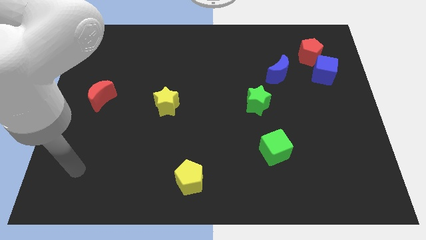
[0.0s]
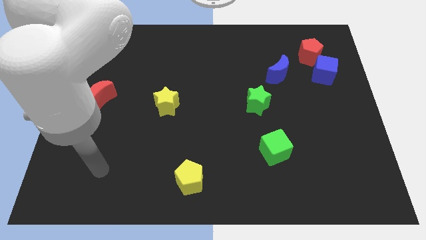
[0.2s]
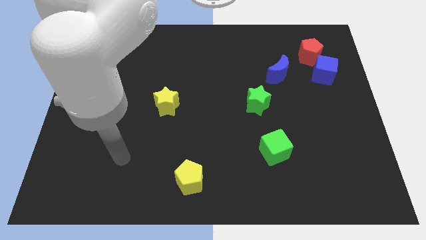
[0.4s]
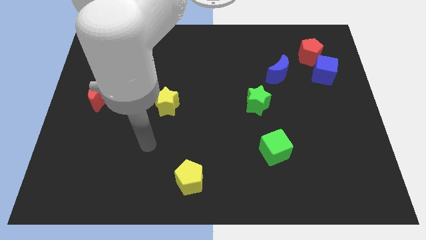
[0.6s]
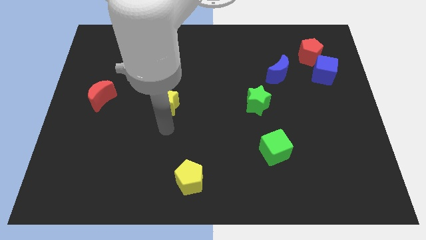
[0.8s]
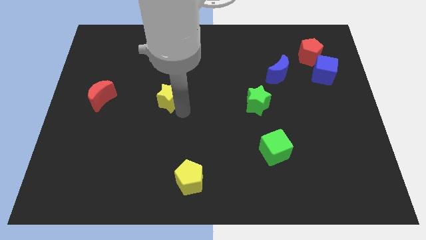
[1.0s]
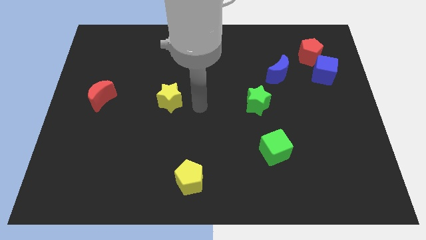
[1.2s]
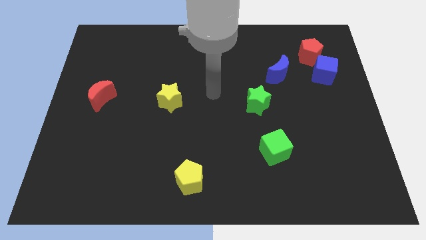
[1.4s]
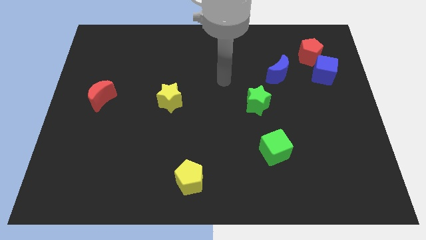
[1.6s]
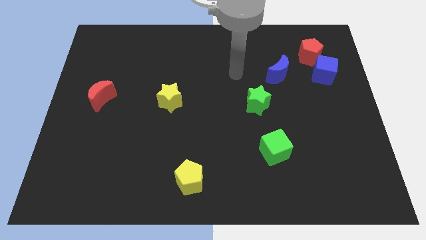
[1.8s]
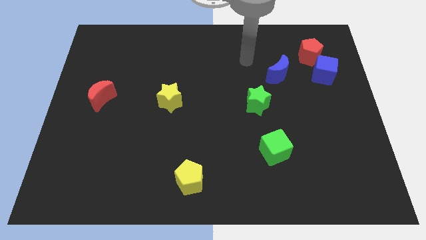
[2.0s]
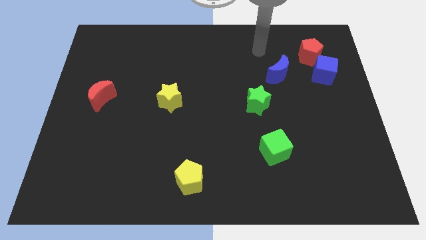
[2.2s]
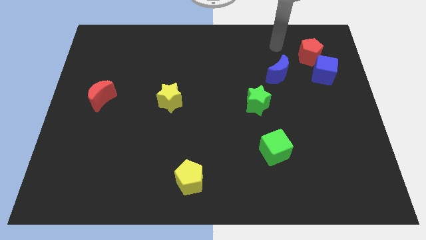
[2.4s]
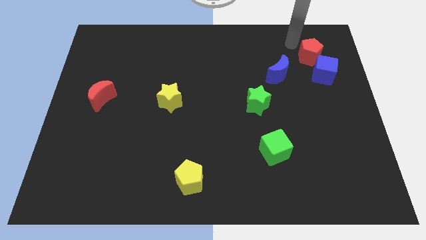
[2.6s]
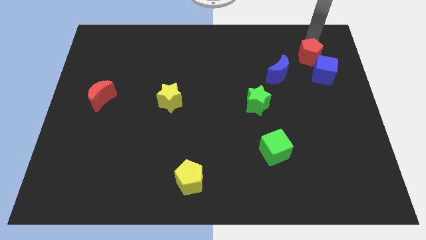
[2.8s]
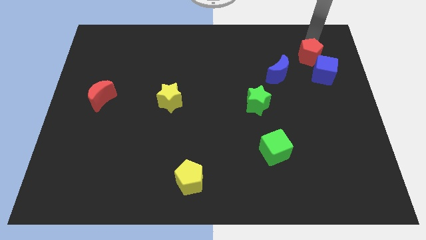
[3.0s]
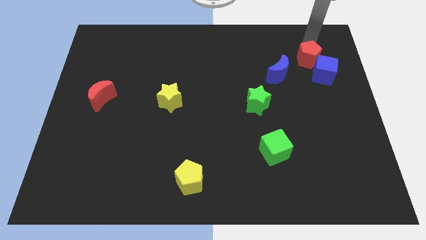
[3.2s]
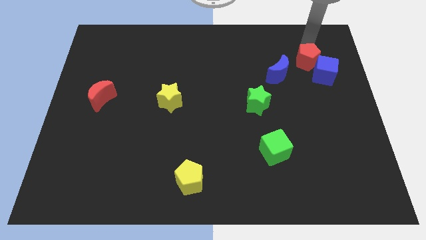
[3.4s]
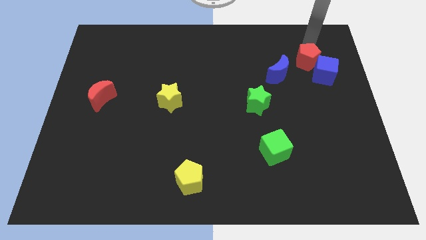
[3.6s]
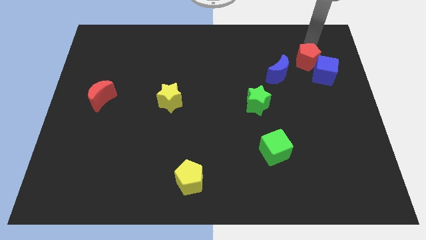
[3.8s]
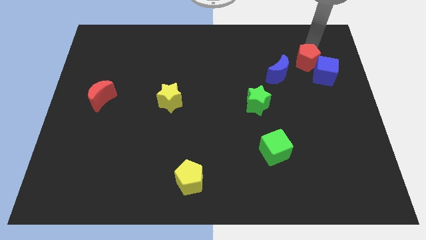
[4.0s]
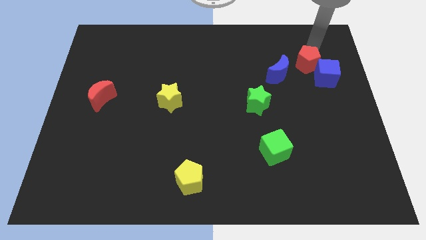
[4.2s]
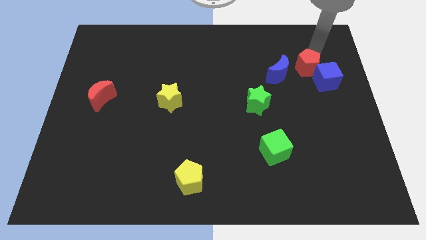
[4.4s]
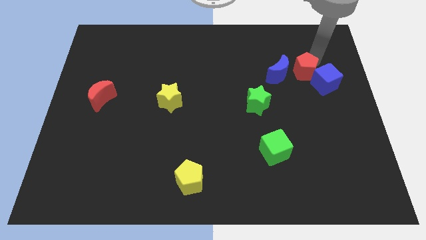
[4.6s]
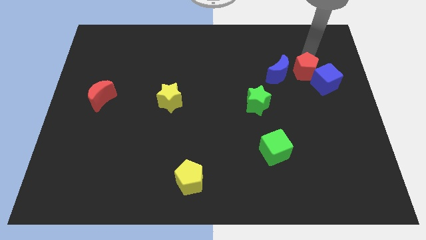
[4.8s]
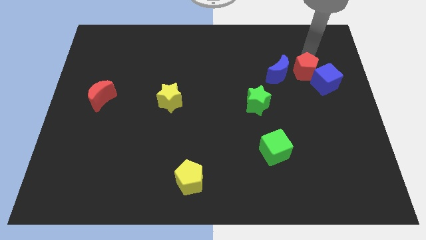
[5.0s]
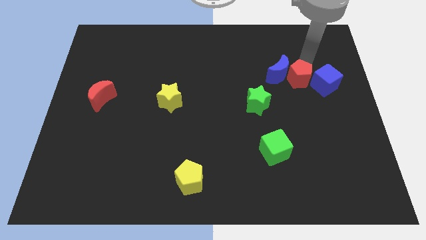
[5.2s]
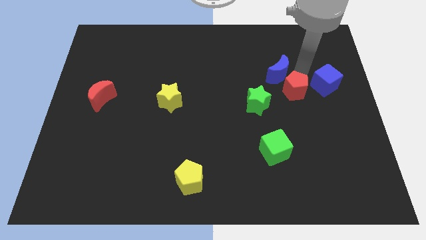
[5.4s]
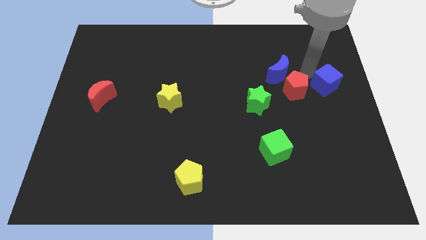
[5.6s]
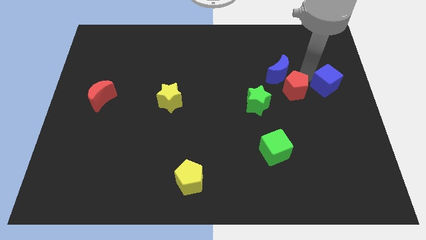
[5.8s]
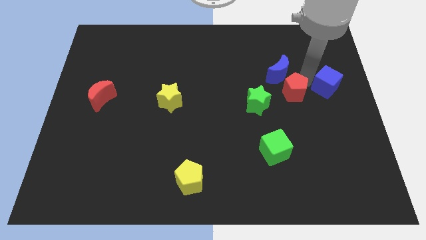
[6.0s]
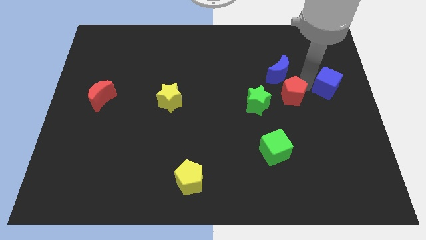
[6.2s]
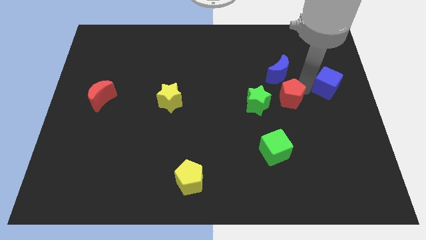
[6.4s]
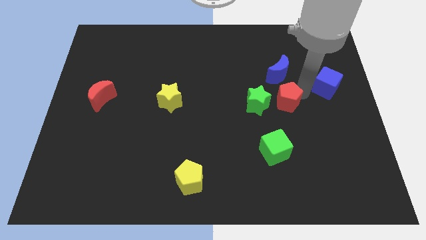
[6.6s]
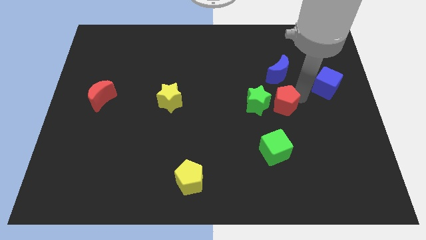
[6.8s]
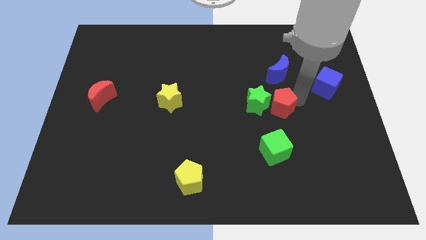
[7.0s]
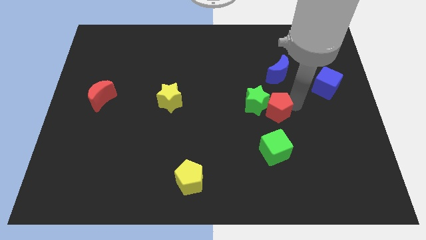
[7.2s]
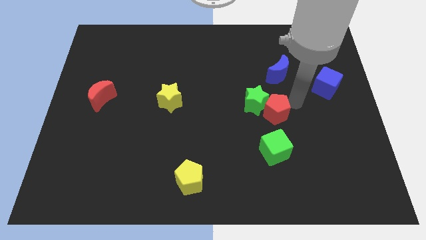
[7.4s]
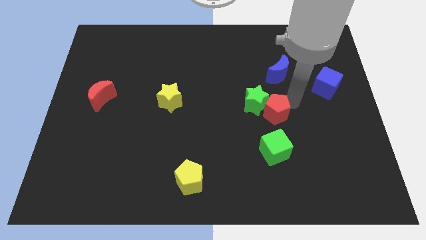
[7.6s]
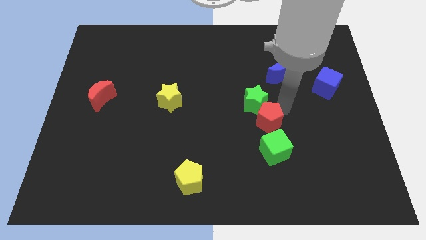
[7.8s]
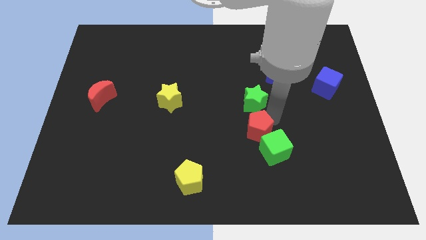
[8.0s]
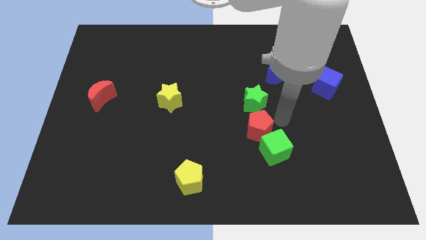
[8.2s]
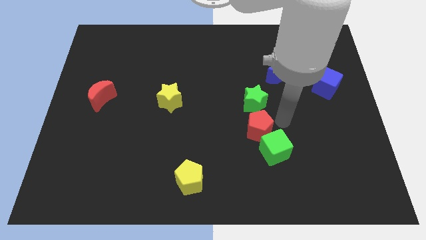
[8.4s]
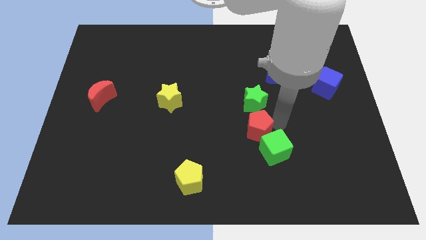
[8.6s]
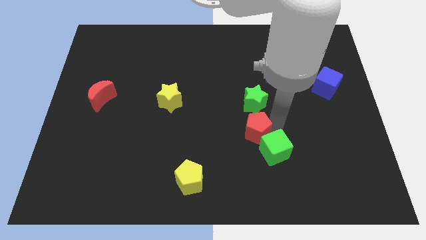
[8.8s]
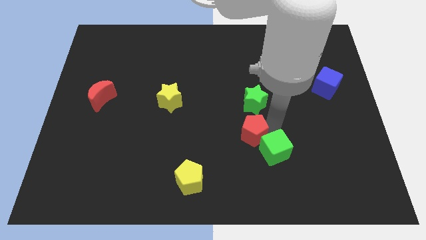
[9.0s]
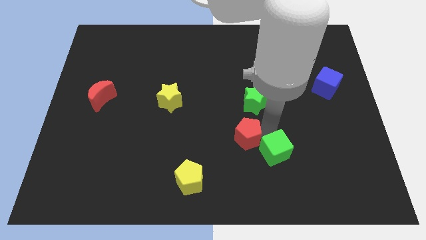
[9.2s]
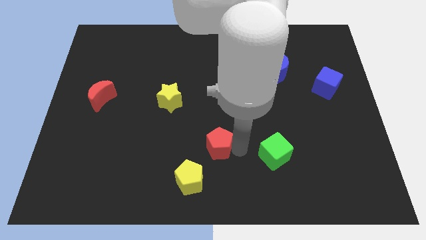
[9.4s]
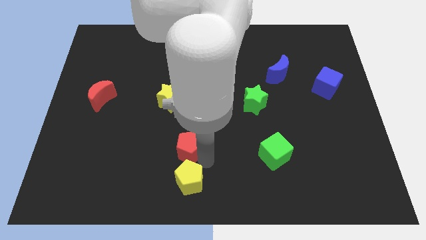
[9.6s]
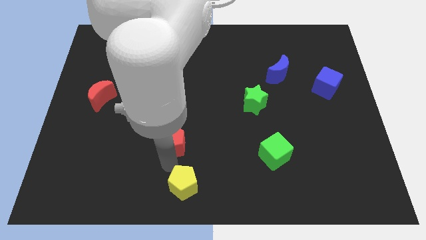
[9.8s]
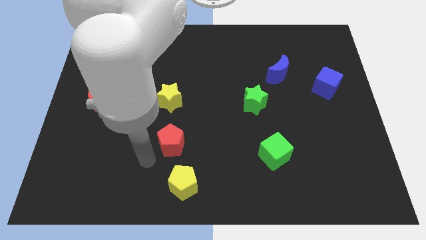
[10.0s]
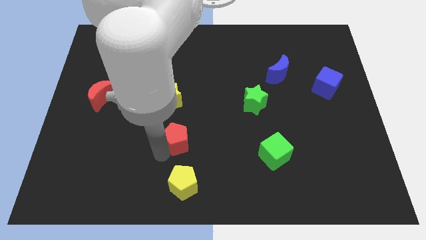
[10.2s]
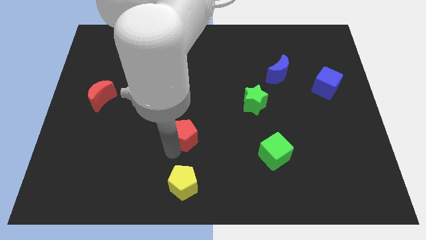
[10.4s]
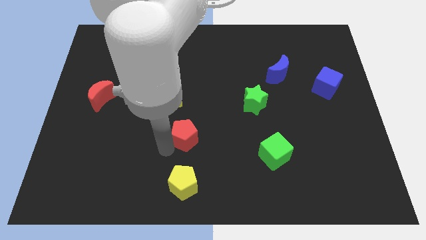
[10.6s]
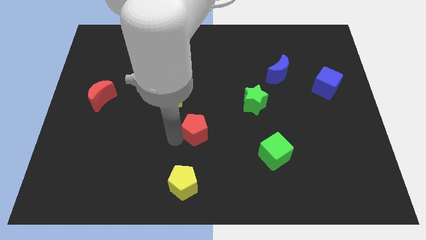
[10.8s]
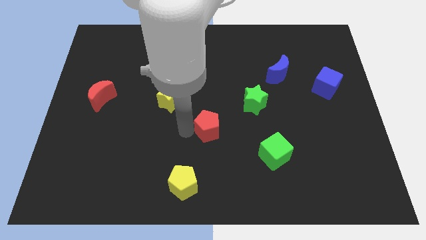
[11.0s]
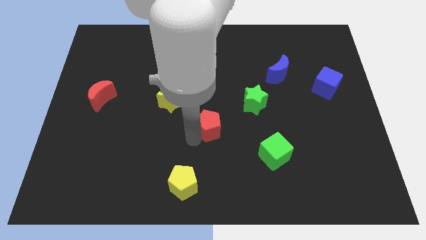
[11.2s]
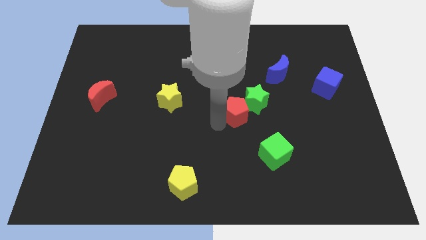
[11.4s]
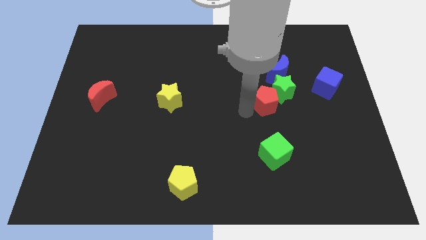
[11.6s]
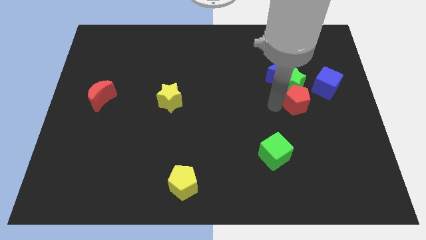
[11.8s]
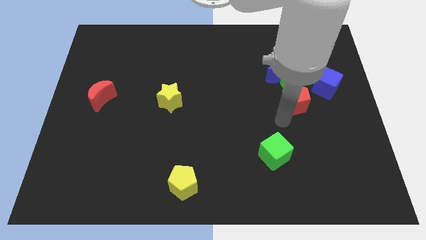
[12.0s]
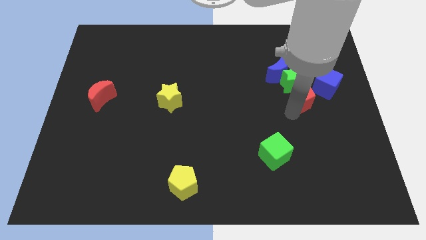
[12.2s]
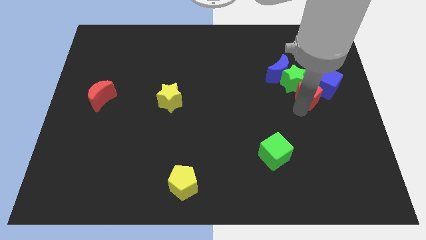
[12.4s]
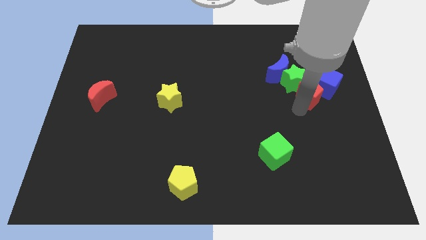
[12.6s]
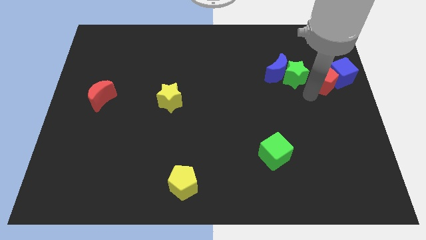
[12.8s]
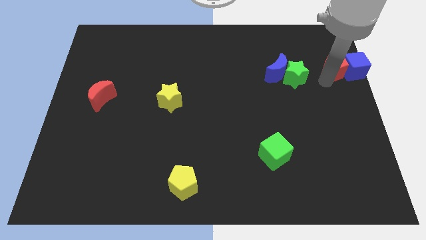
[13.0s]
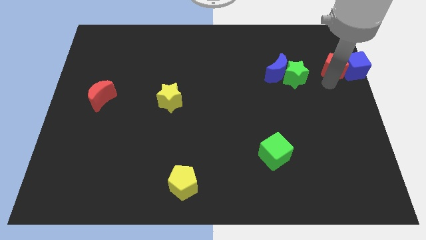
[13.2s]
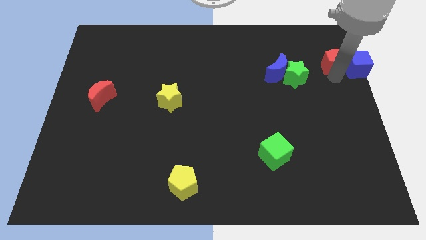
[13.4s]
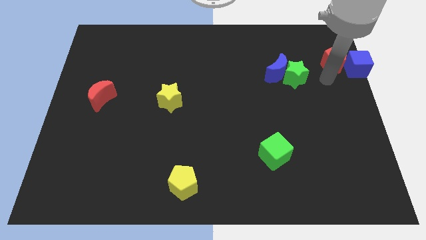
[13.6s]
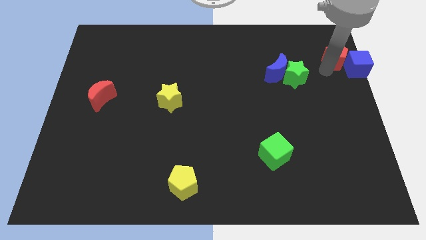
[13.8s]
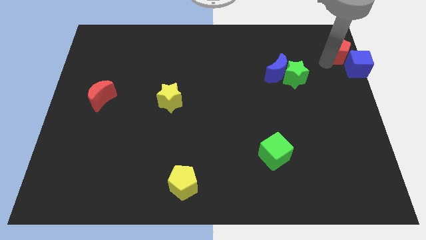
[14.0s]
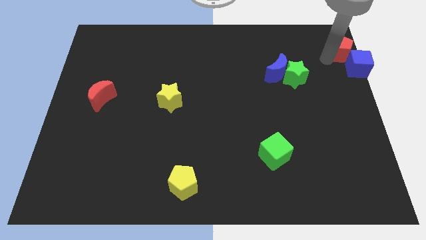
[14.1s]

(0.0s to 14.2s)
move the red pentagon to the top right of the board

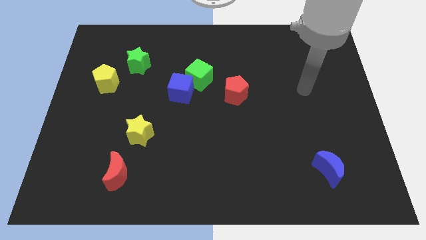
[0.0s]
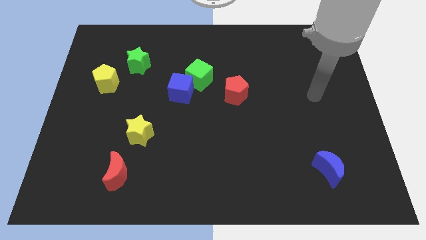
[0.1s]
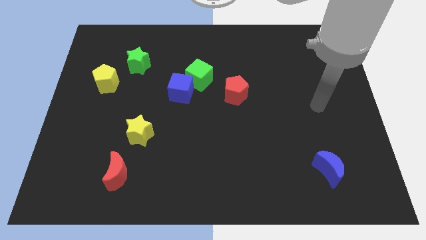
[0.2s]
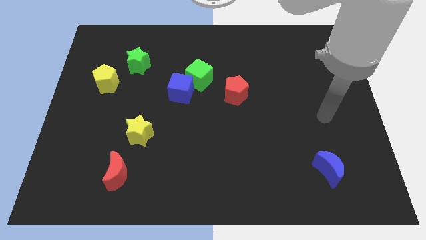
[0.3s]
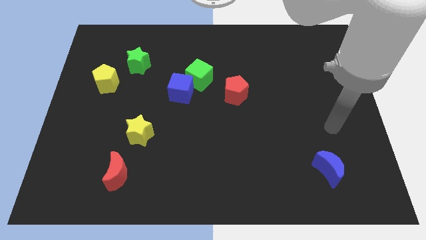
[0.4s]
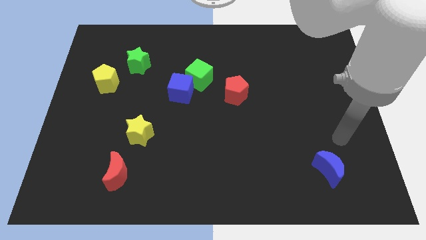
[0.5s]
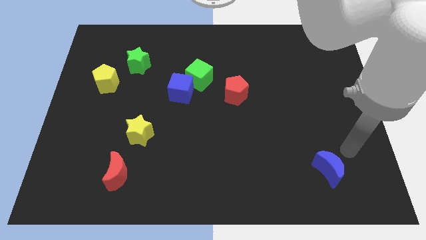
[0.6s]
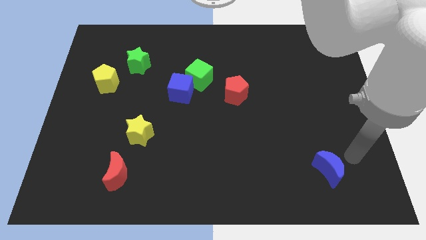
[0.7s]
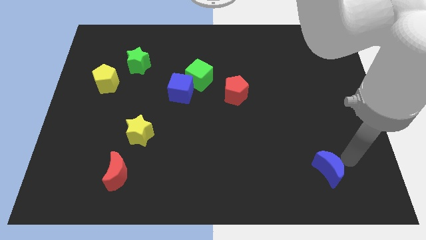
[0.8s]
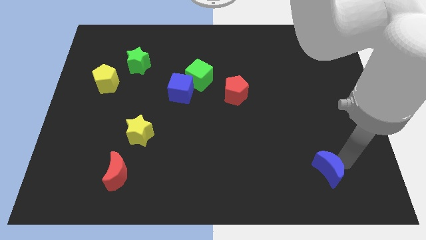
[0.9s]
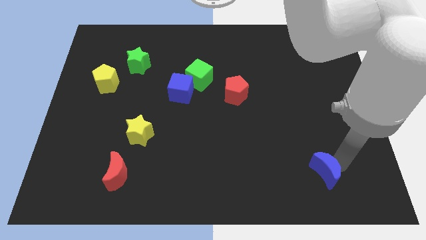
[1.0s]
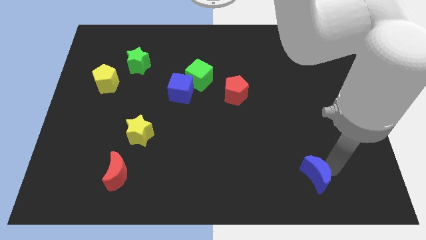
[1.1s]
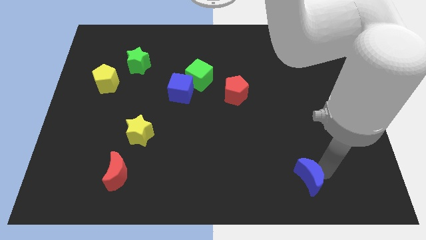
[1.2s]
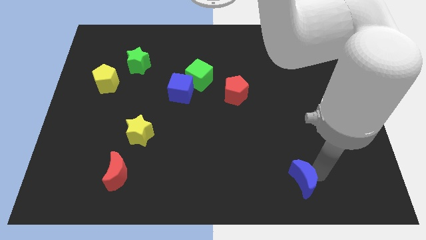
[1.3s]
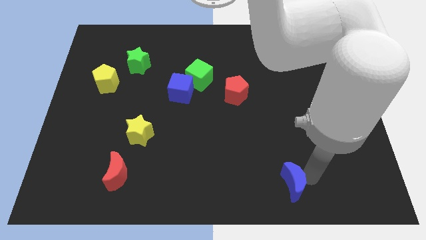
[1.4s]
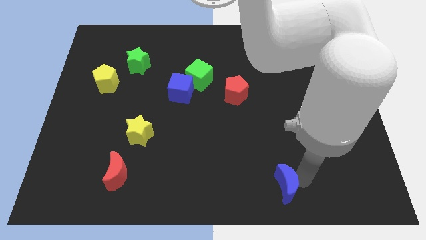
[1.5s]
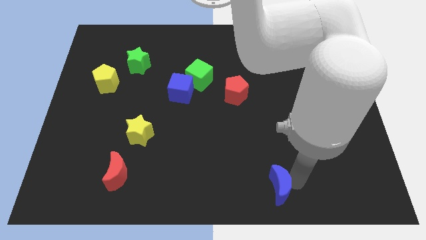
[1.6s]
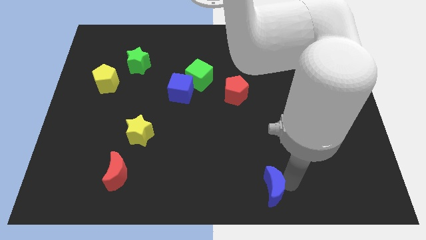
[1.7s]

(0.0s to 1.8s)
move the blue moon to the bottom
